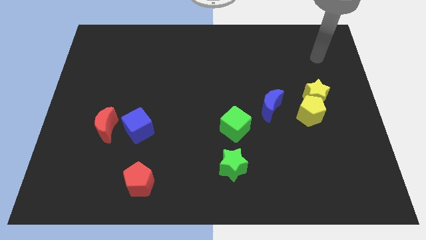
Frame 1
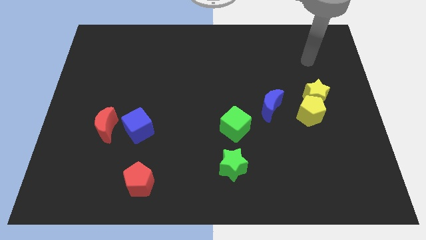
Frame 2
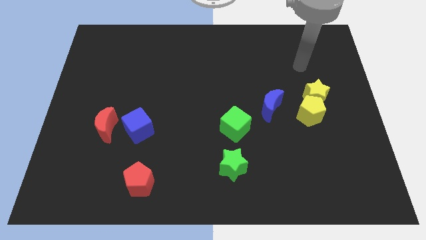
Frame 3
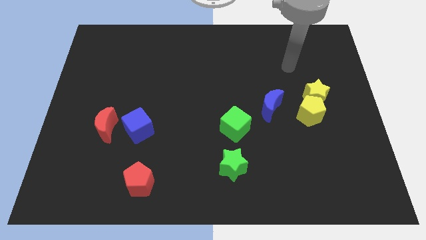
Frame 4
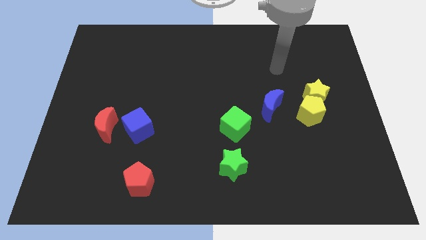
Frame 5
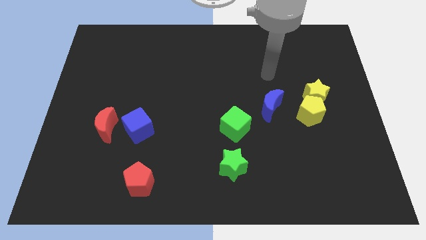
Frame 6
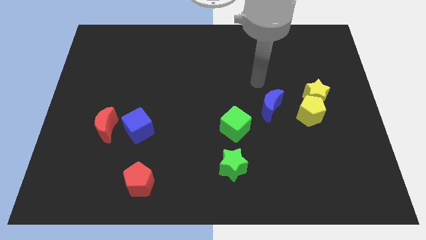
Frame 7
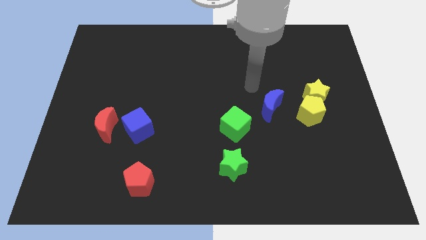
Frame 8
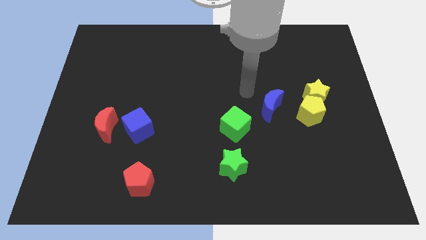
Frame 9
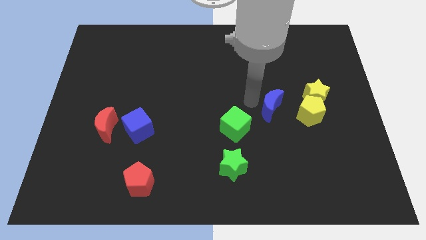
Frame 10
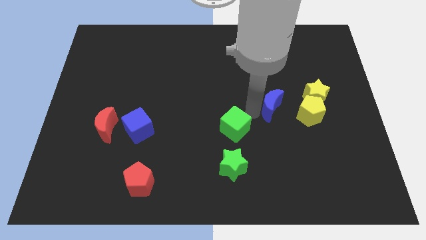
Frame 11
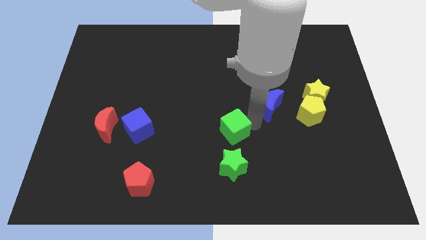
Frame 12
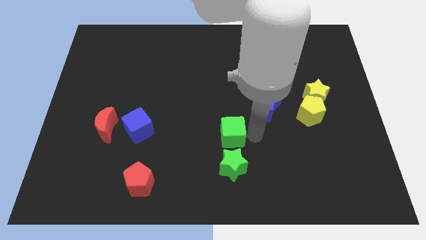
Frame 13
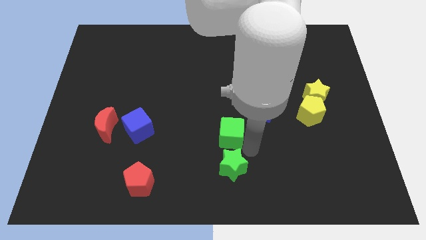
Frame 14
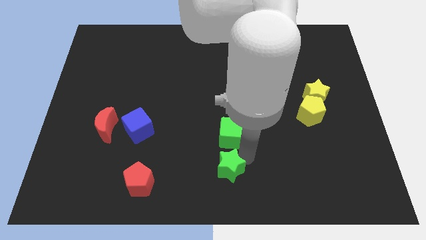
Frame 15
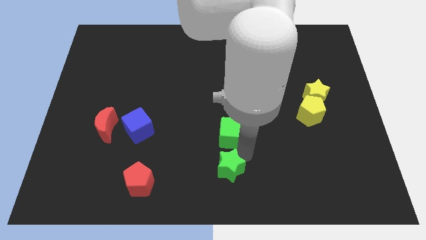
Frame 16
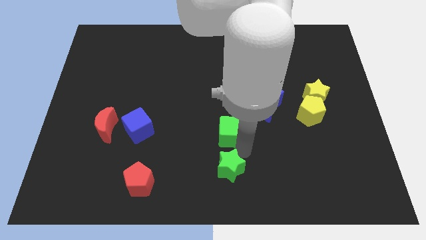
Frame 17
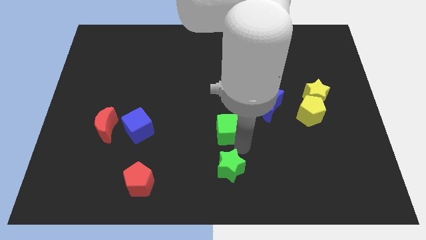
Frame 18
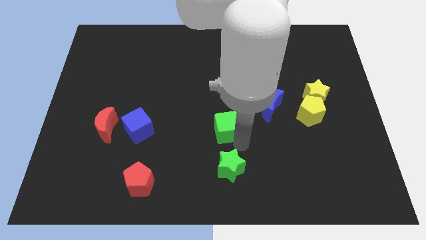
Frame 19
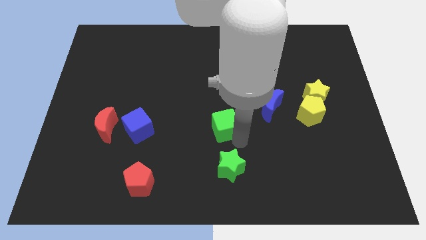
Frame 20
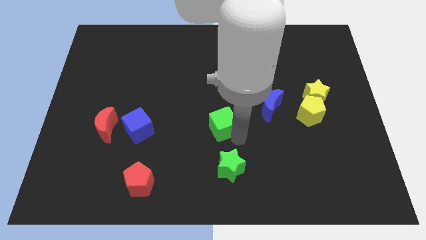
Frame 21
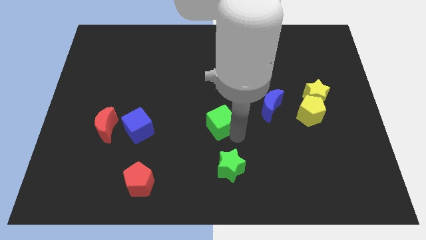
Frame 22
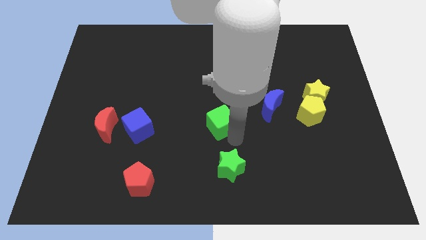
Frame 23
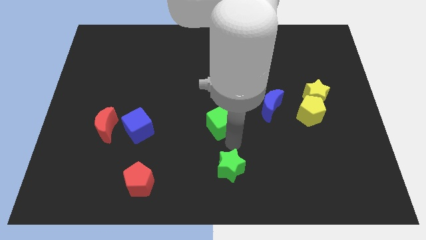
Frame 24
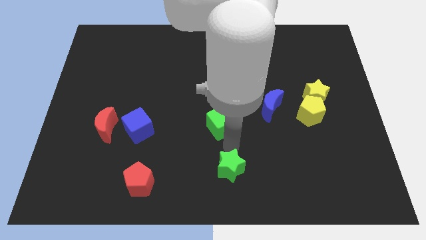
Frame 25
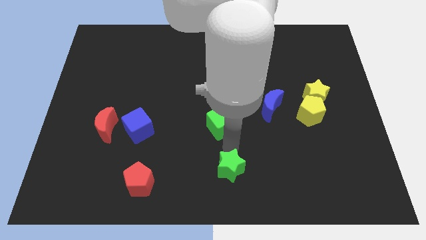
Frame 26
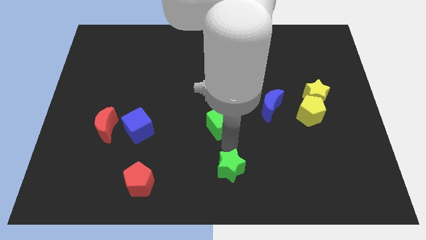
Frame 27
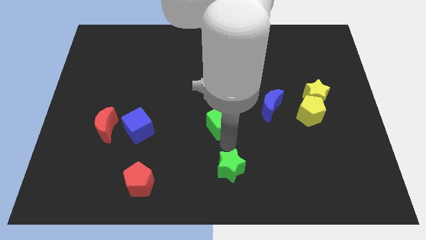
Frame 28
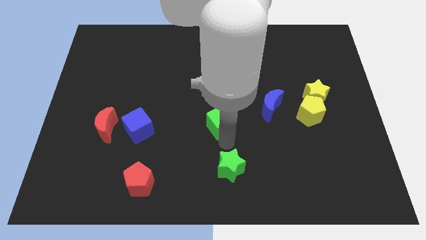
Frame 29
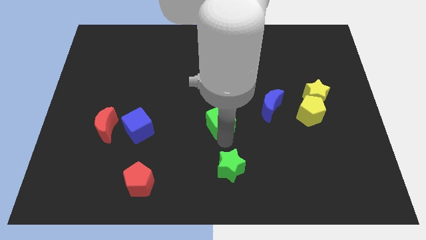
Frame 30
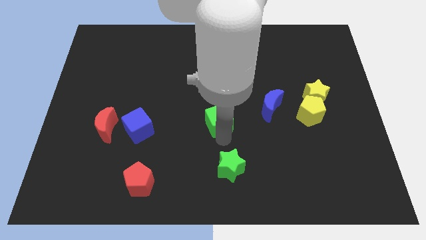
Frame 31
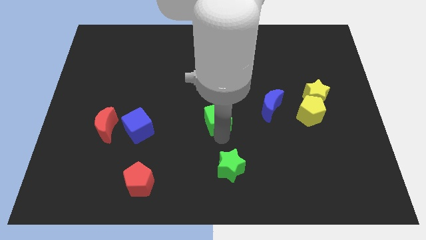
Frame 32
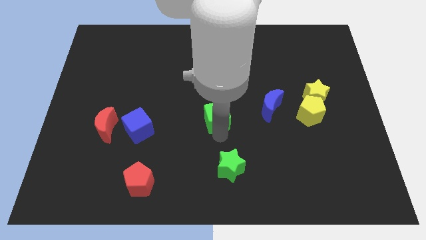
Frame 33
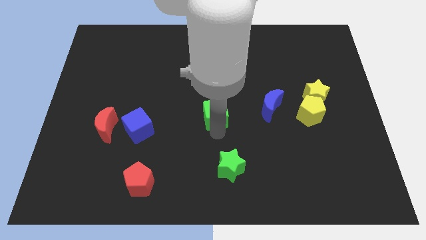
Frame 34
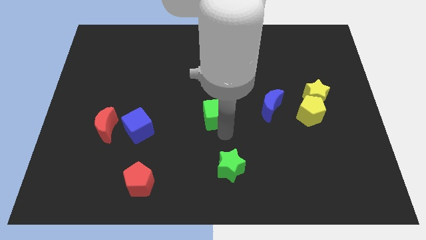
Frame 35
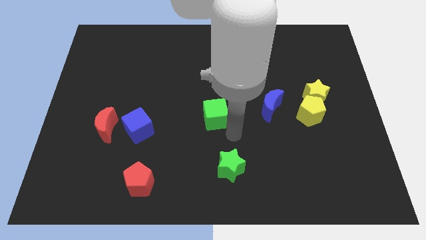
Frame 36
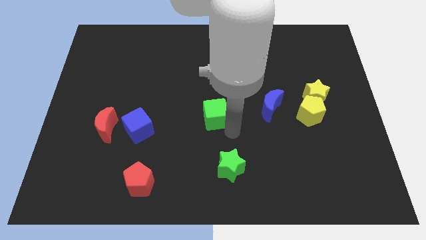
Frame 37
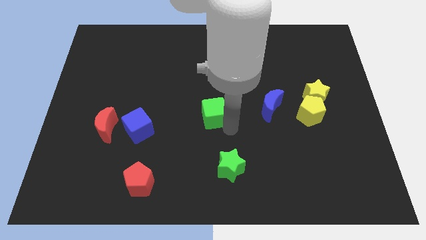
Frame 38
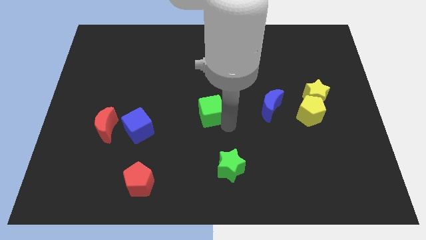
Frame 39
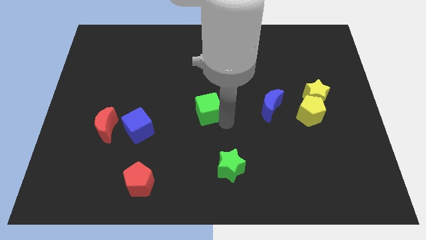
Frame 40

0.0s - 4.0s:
slightly slide the green cube up and to the left

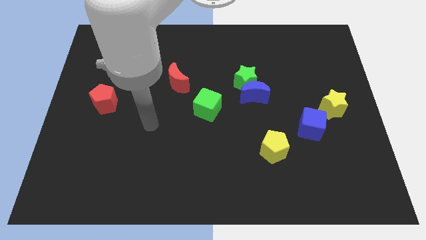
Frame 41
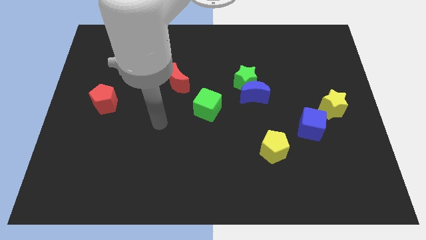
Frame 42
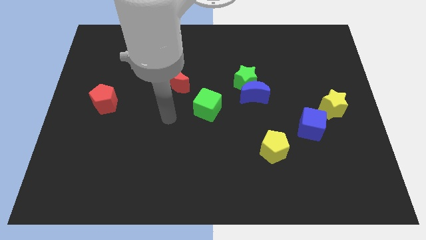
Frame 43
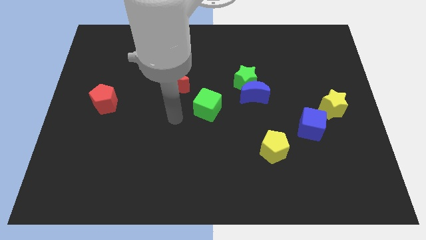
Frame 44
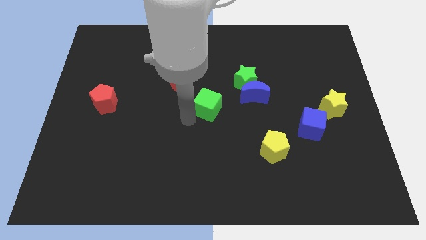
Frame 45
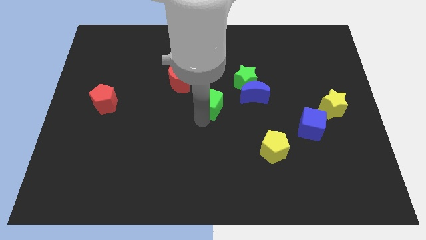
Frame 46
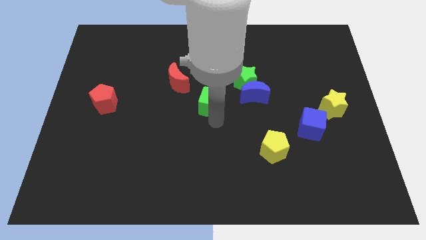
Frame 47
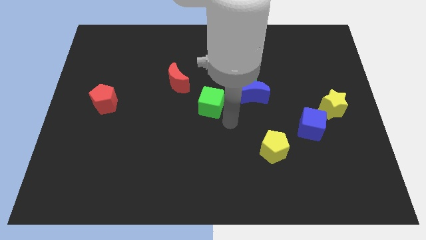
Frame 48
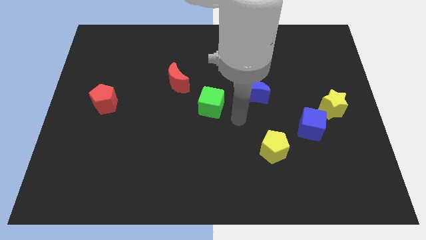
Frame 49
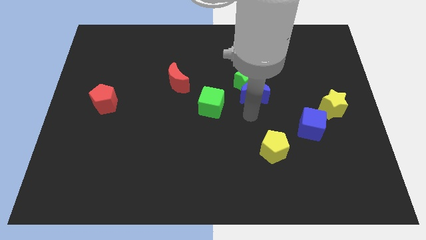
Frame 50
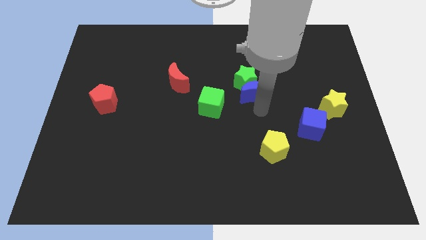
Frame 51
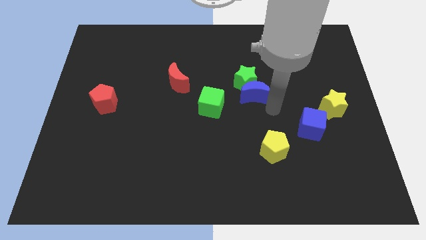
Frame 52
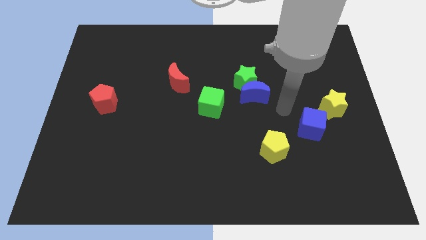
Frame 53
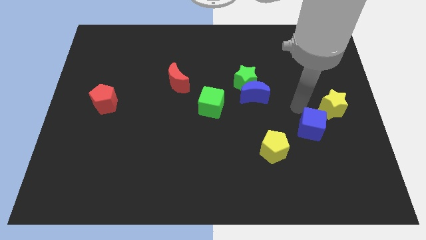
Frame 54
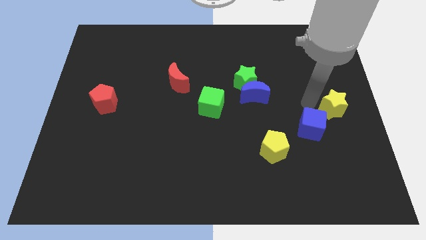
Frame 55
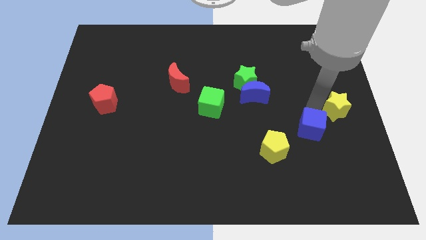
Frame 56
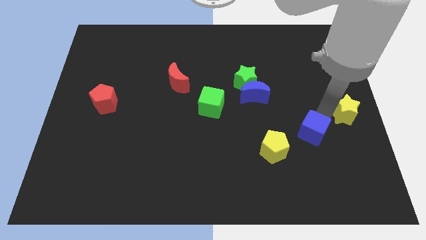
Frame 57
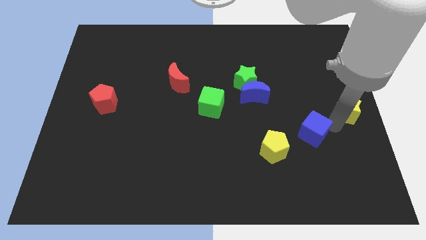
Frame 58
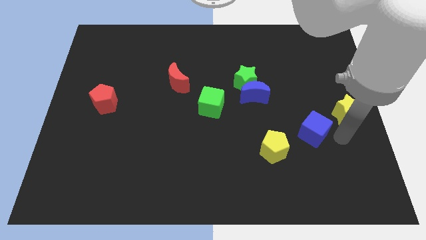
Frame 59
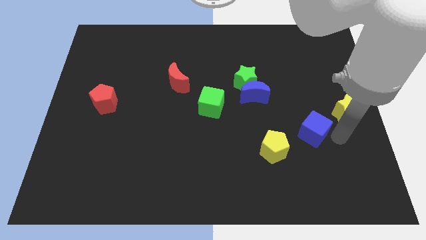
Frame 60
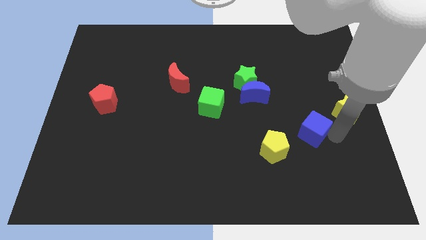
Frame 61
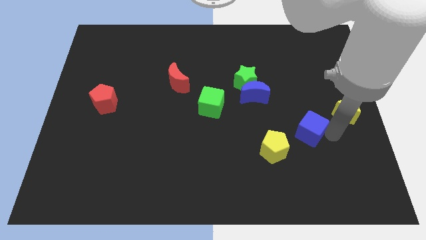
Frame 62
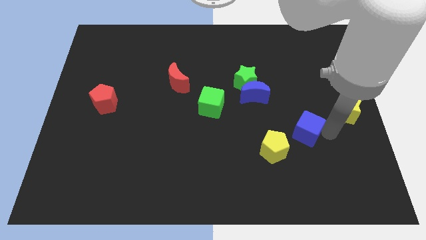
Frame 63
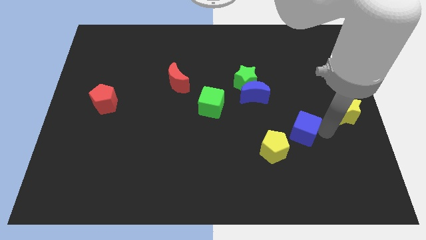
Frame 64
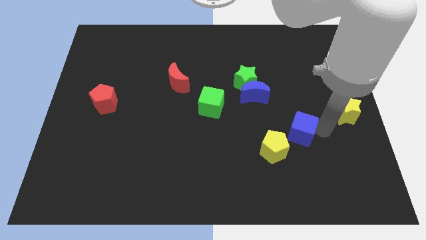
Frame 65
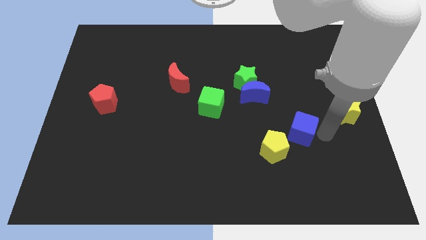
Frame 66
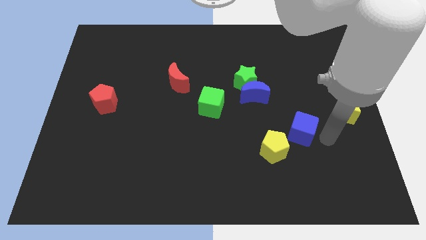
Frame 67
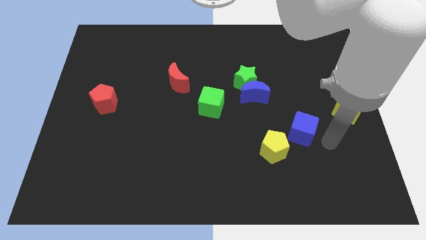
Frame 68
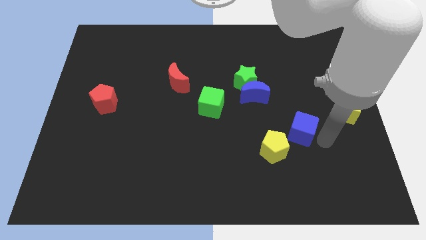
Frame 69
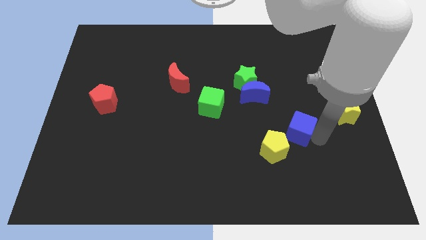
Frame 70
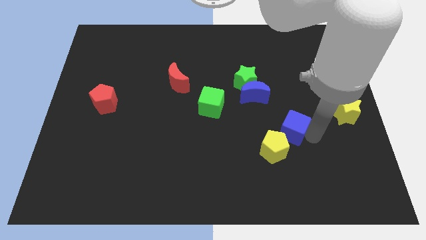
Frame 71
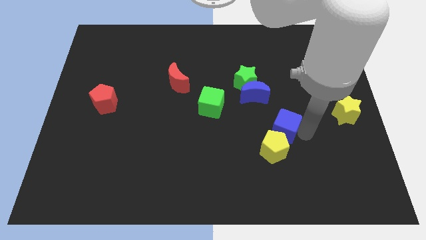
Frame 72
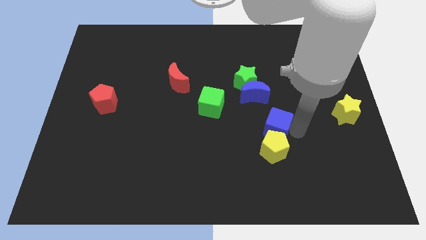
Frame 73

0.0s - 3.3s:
push the blue cube a little bit left

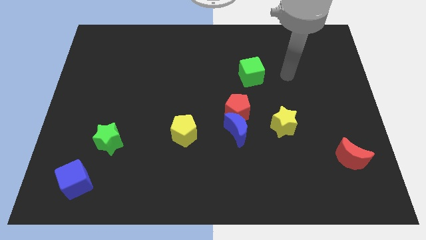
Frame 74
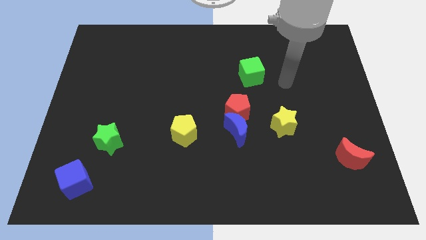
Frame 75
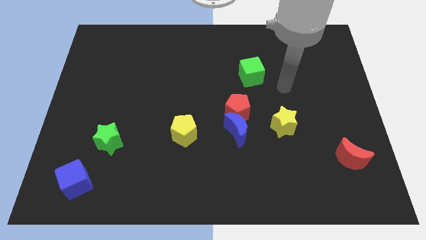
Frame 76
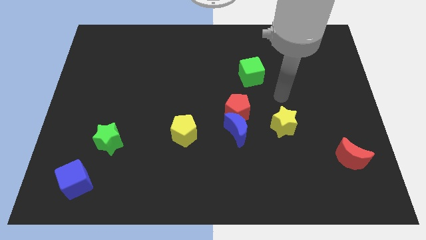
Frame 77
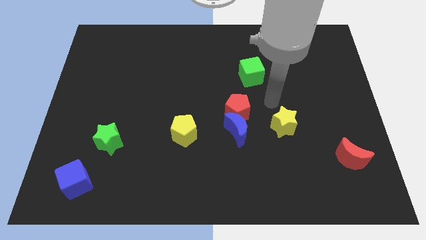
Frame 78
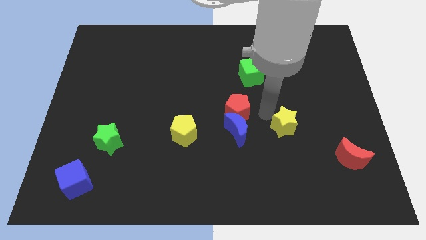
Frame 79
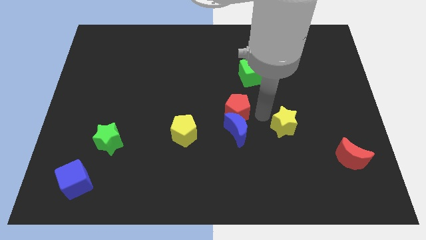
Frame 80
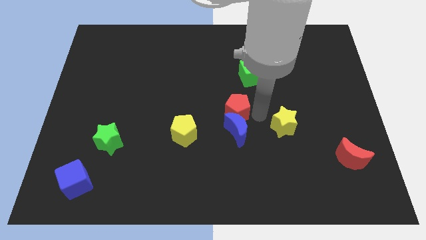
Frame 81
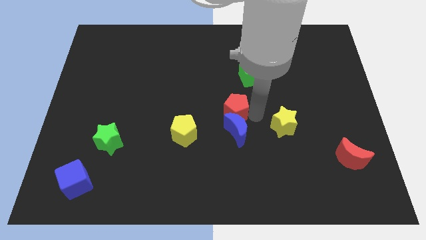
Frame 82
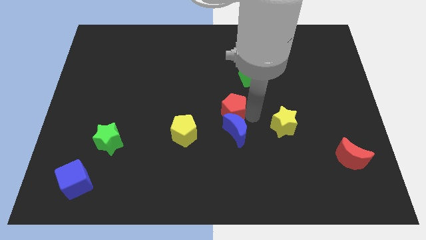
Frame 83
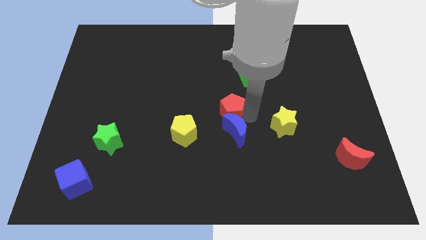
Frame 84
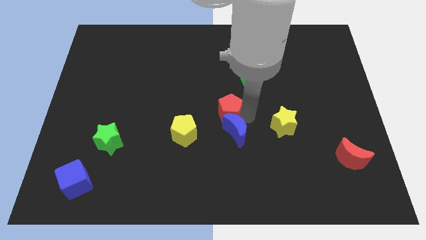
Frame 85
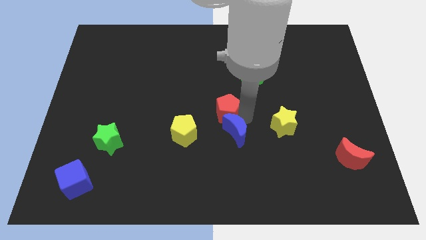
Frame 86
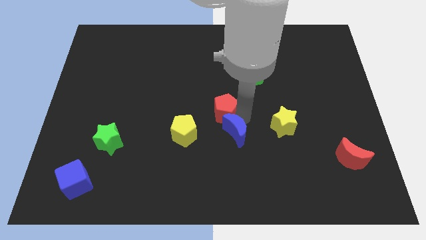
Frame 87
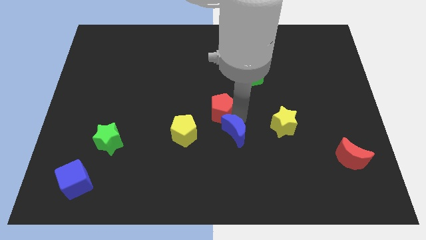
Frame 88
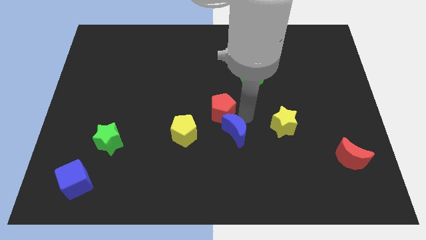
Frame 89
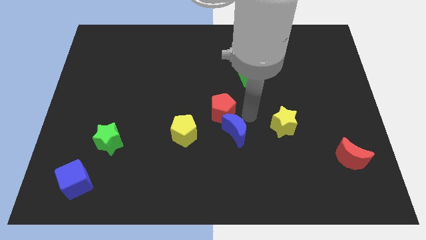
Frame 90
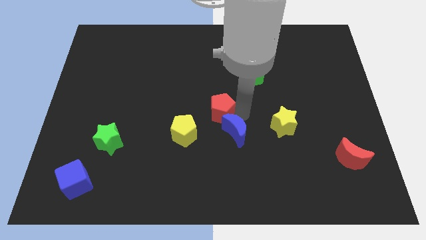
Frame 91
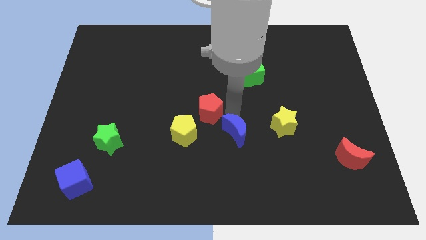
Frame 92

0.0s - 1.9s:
slide the red pentagon slightly left
